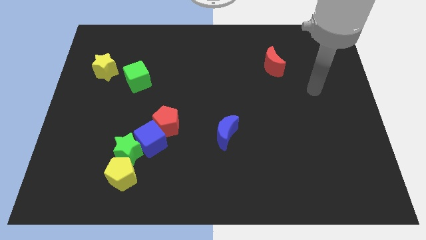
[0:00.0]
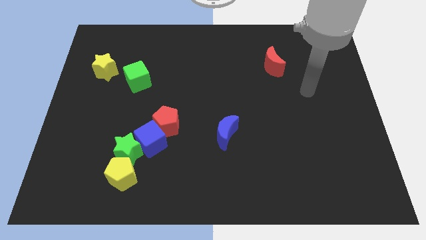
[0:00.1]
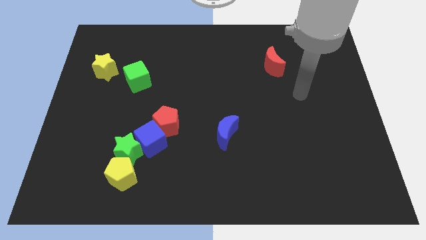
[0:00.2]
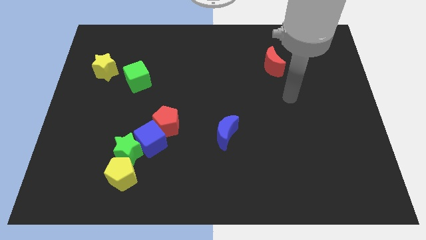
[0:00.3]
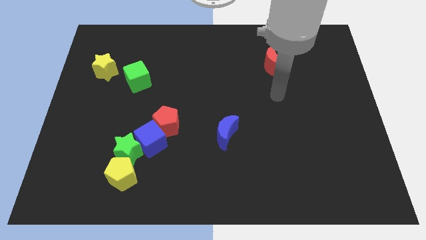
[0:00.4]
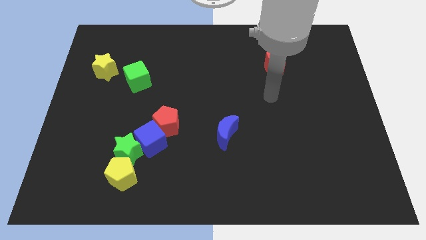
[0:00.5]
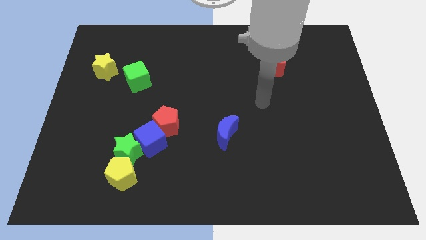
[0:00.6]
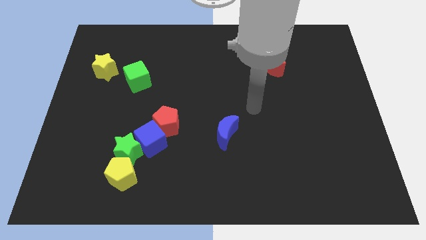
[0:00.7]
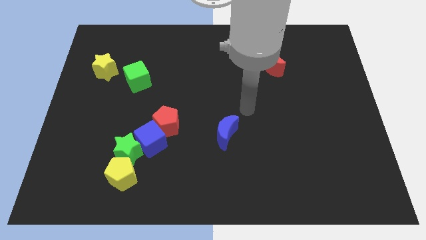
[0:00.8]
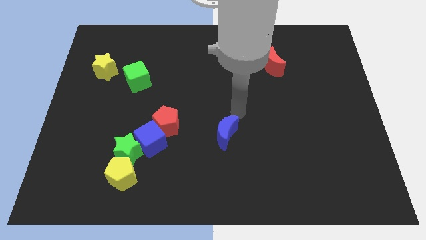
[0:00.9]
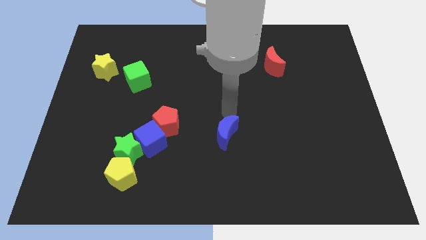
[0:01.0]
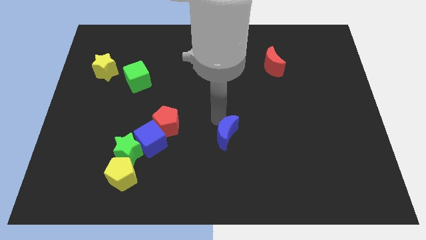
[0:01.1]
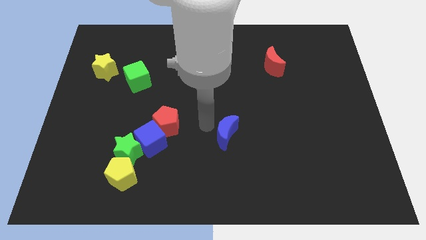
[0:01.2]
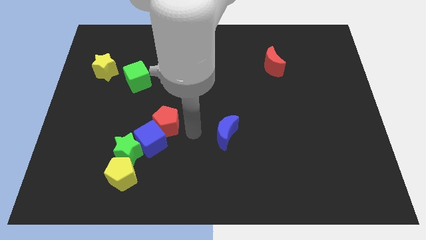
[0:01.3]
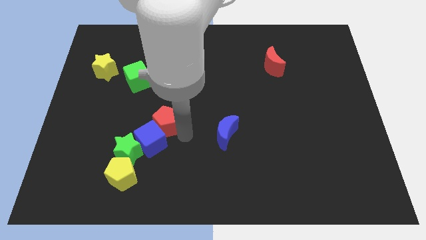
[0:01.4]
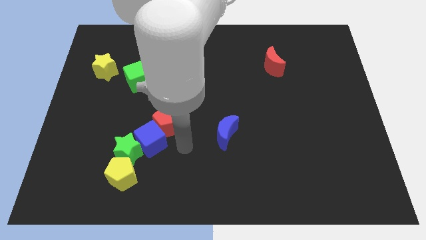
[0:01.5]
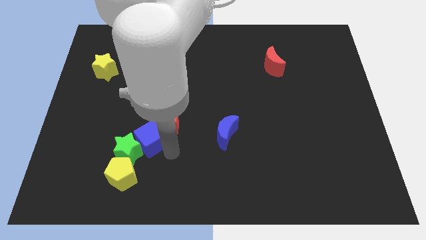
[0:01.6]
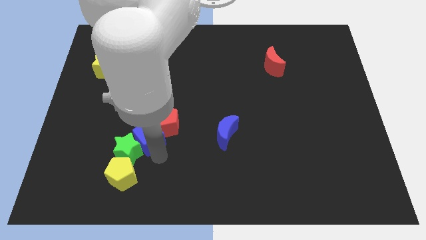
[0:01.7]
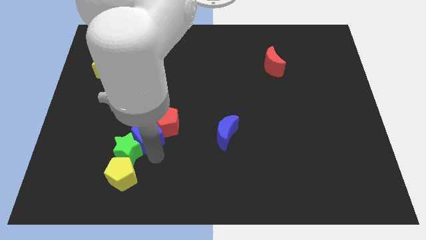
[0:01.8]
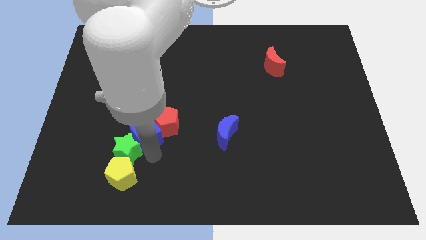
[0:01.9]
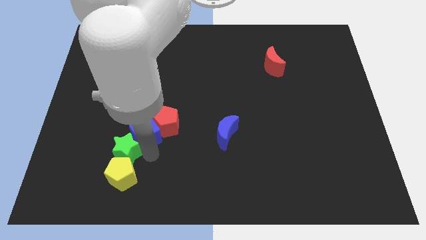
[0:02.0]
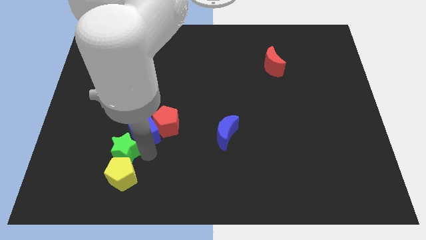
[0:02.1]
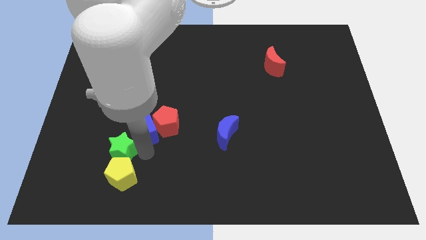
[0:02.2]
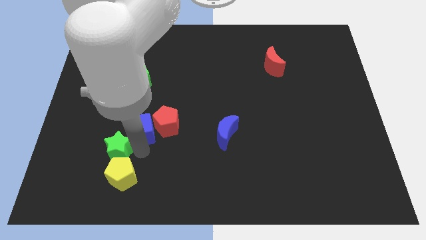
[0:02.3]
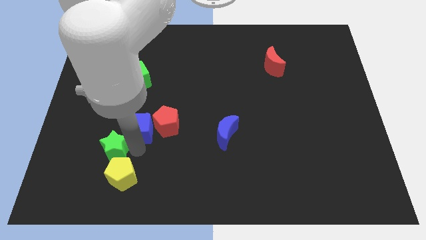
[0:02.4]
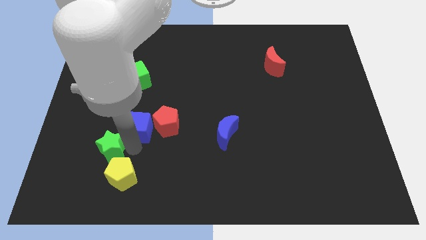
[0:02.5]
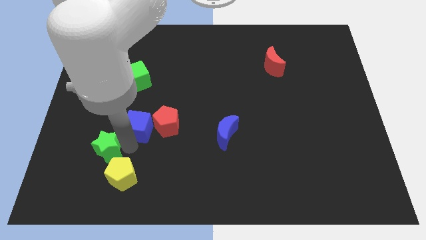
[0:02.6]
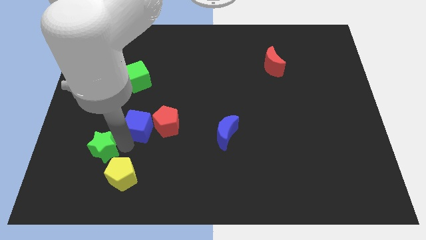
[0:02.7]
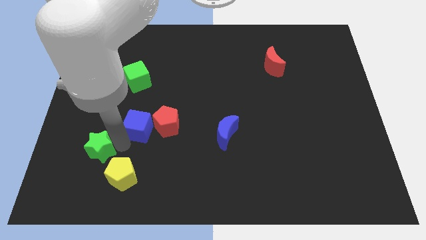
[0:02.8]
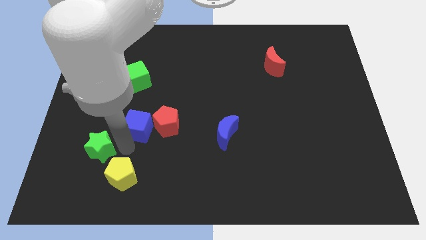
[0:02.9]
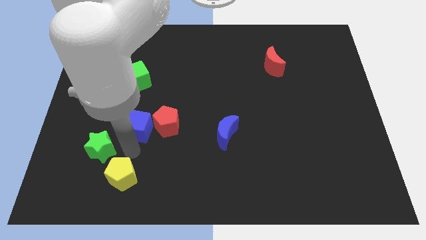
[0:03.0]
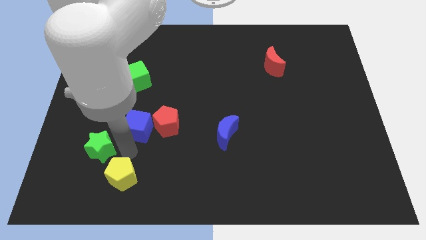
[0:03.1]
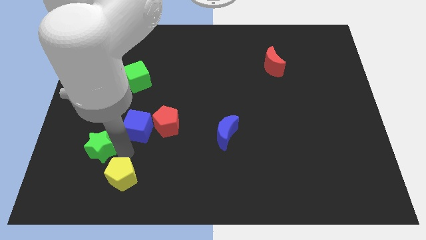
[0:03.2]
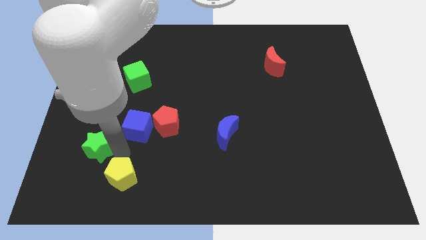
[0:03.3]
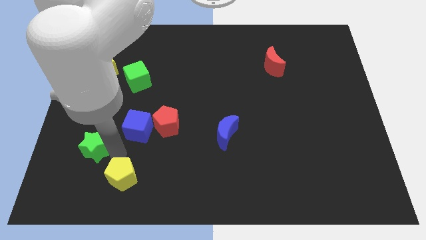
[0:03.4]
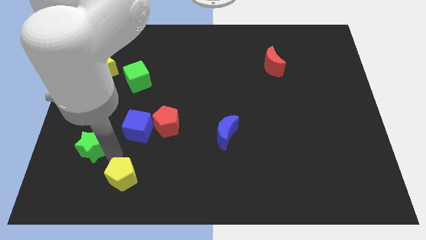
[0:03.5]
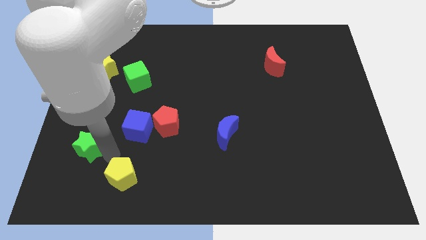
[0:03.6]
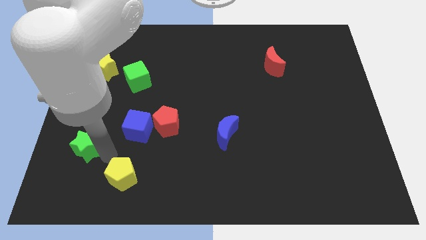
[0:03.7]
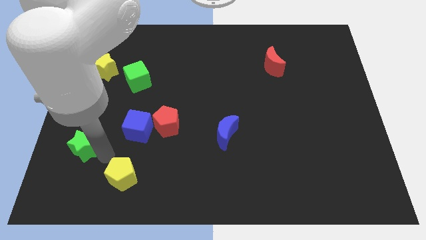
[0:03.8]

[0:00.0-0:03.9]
move the green star away from the yellow pentagon and blue cube

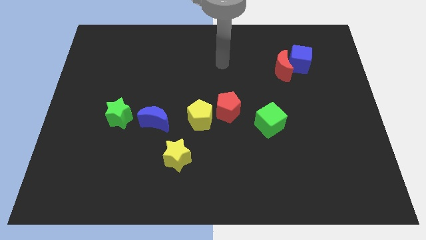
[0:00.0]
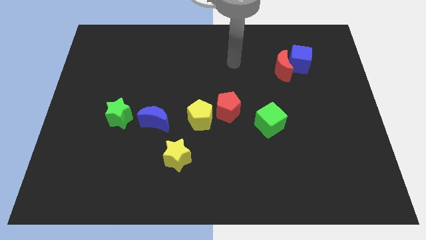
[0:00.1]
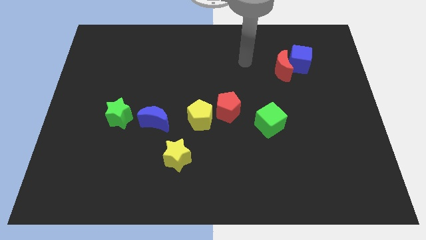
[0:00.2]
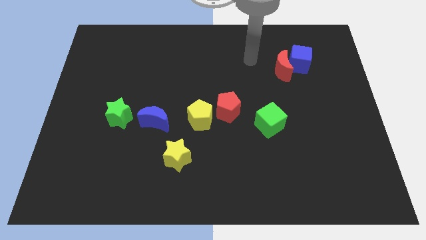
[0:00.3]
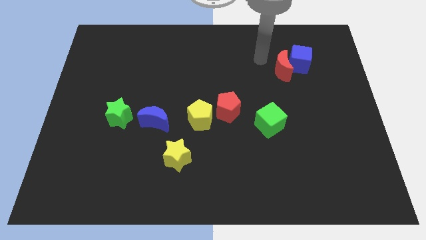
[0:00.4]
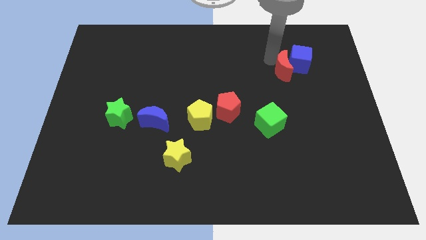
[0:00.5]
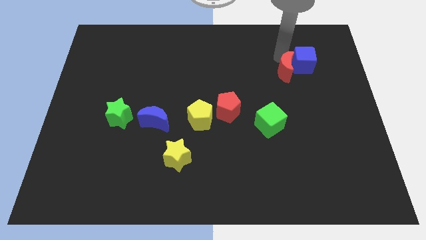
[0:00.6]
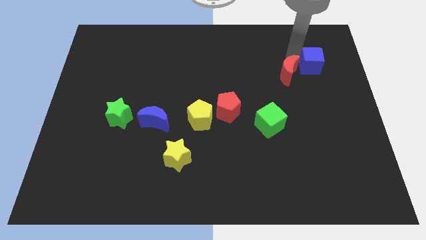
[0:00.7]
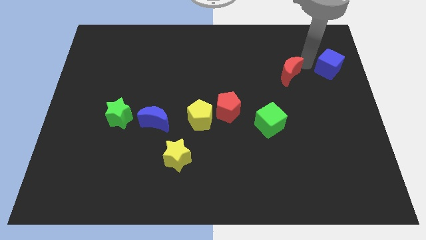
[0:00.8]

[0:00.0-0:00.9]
move the red moon away from the blue cube

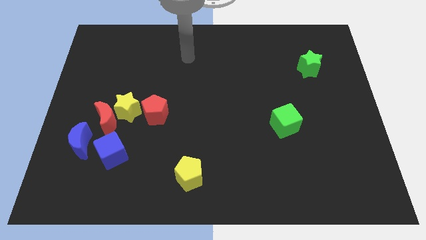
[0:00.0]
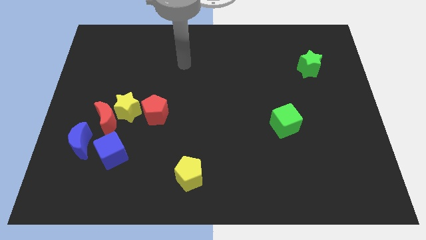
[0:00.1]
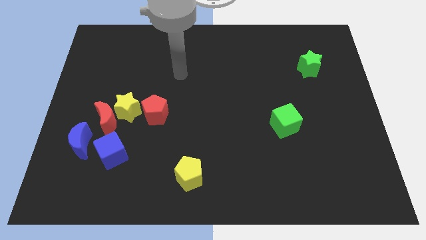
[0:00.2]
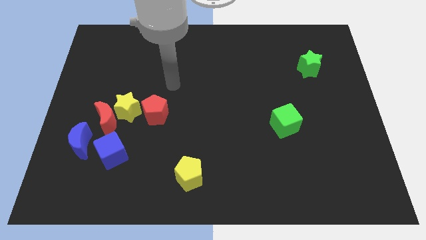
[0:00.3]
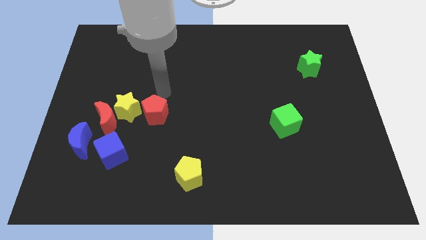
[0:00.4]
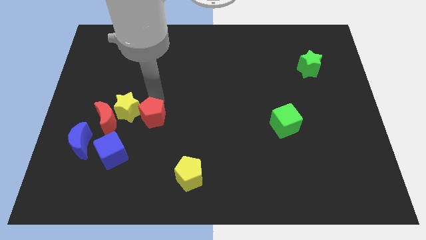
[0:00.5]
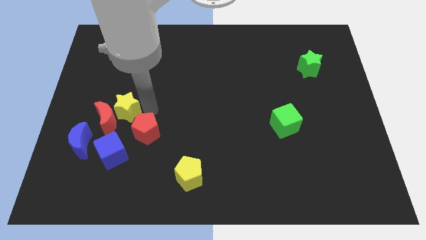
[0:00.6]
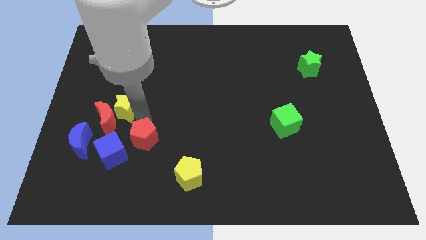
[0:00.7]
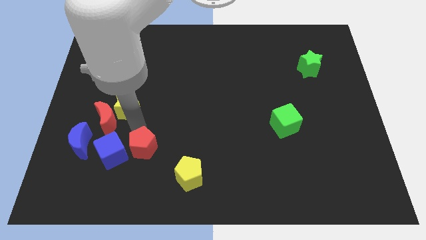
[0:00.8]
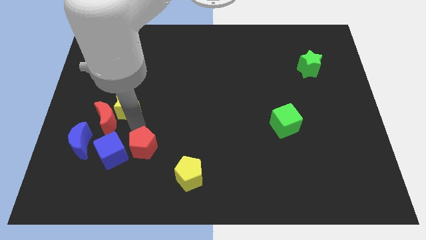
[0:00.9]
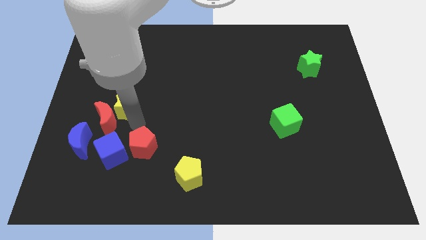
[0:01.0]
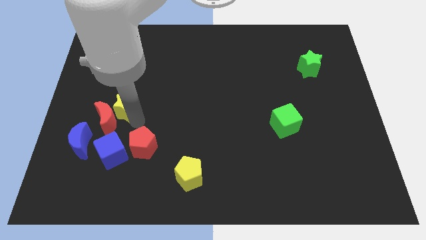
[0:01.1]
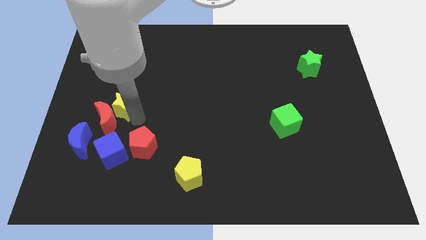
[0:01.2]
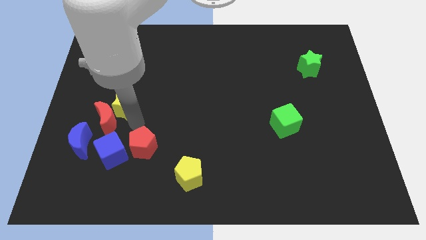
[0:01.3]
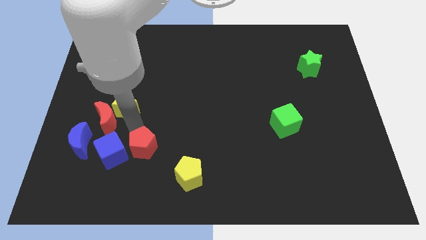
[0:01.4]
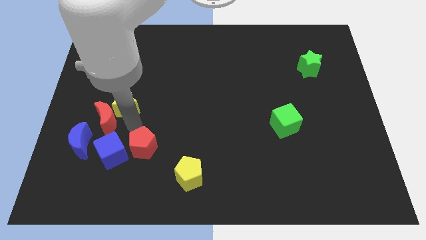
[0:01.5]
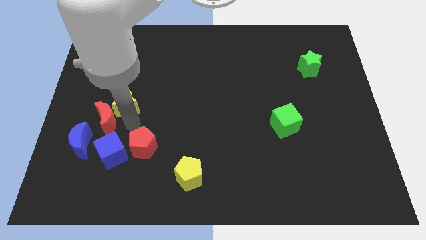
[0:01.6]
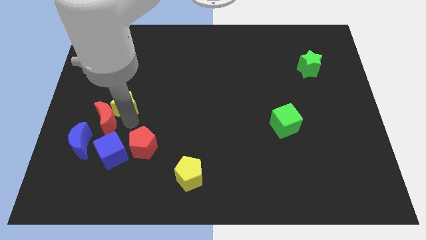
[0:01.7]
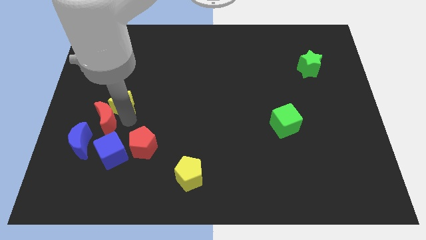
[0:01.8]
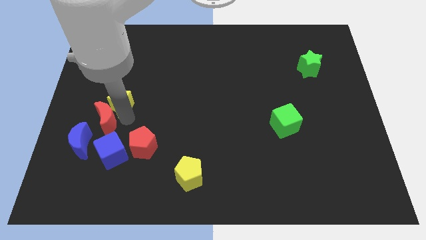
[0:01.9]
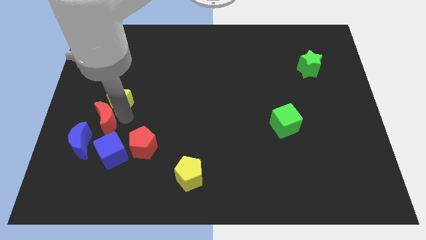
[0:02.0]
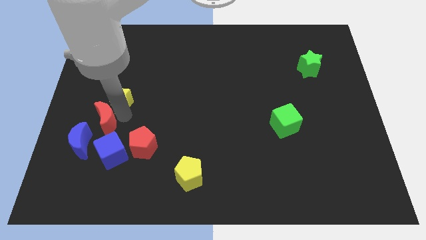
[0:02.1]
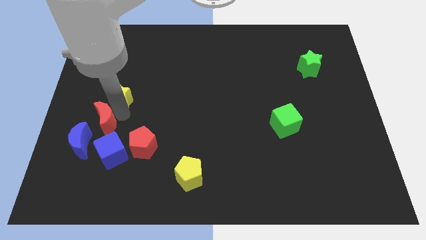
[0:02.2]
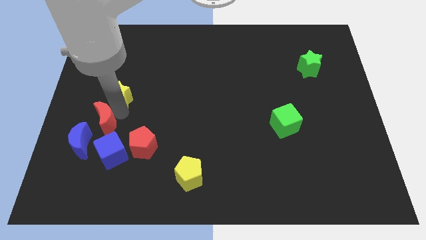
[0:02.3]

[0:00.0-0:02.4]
separate the yellow star from the red moon and red pentagon

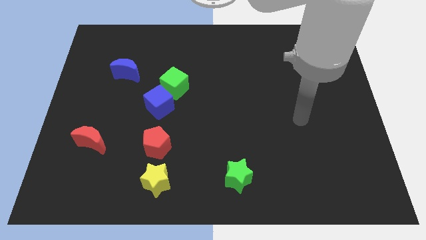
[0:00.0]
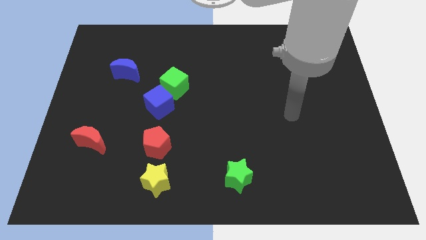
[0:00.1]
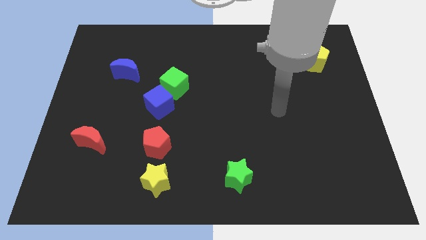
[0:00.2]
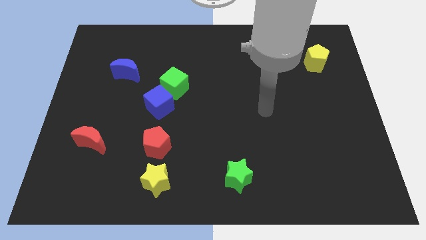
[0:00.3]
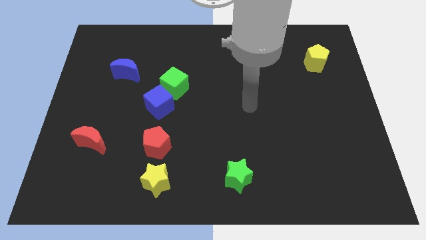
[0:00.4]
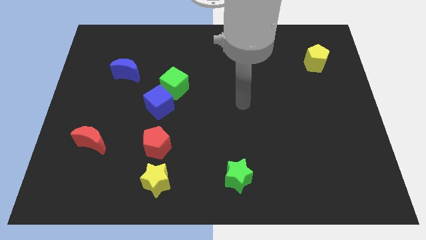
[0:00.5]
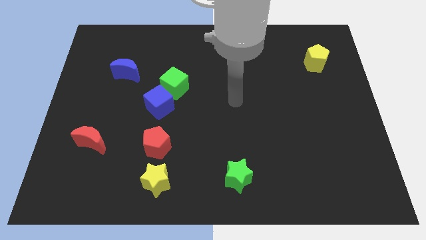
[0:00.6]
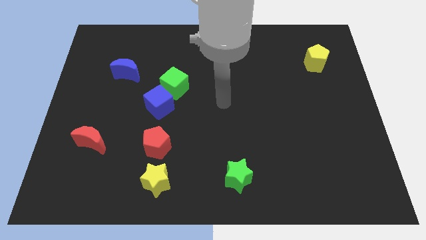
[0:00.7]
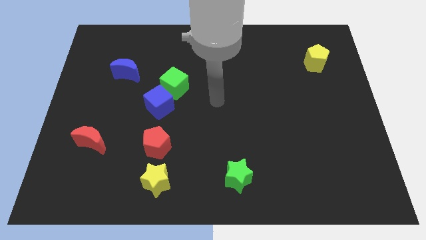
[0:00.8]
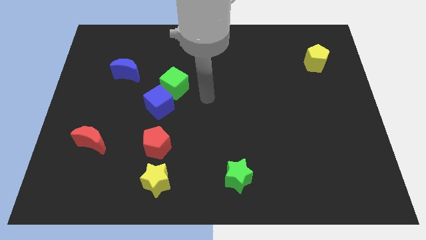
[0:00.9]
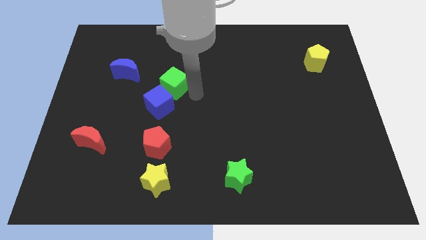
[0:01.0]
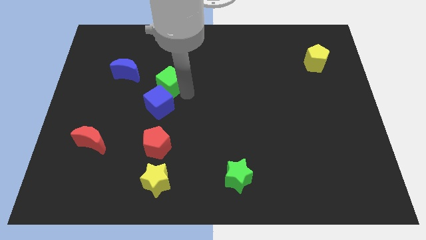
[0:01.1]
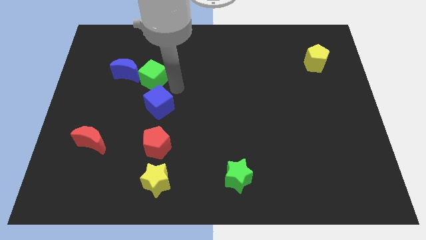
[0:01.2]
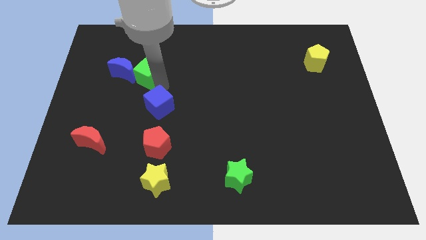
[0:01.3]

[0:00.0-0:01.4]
move the blue cube away from the green cube

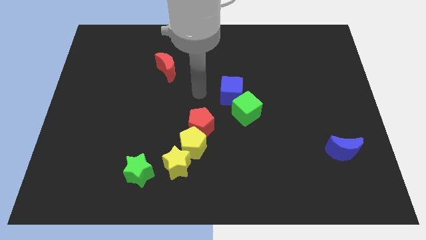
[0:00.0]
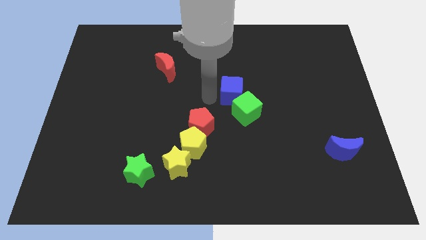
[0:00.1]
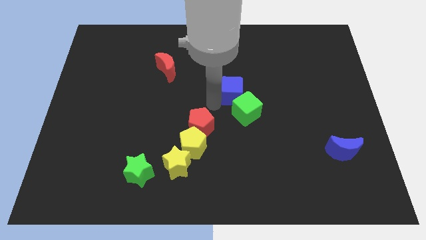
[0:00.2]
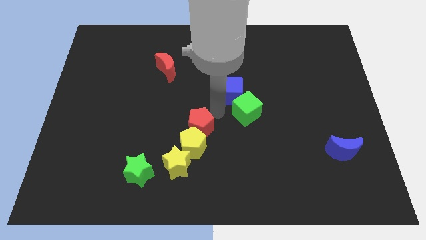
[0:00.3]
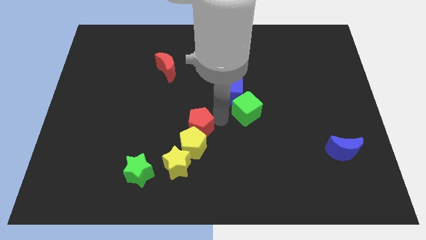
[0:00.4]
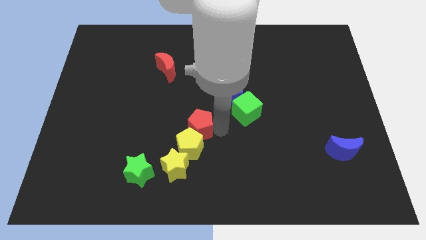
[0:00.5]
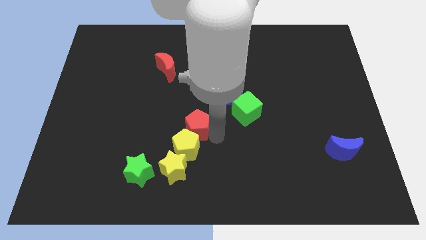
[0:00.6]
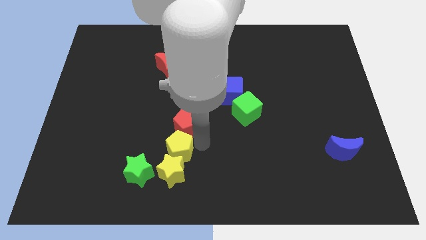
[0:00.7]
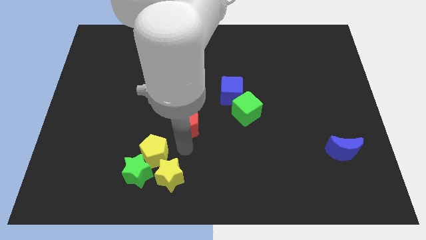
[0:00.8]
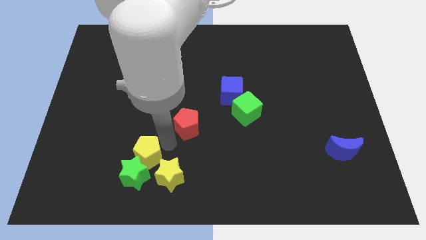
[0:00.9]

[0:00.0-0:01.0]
separate the red pentagon from the yellow pentagon
